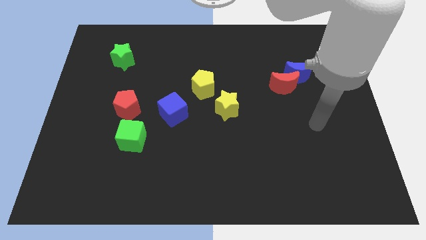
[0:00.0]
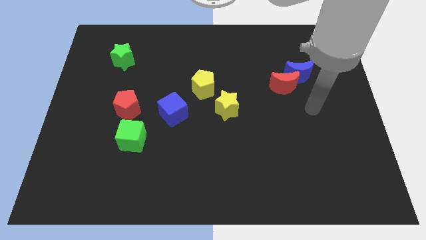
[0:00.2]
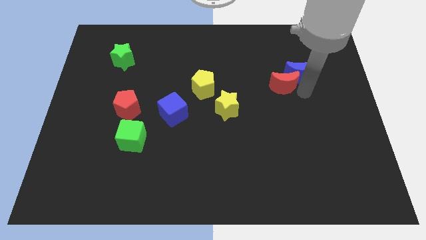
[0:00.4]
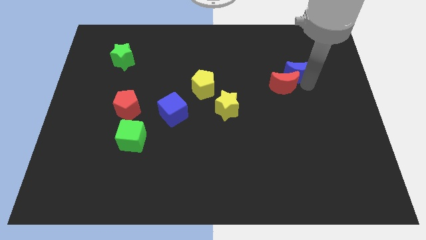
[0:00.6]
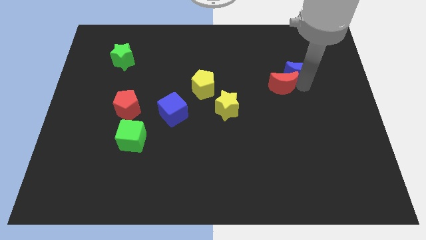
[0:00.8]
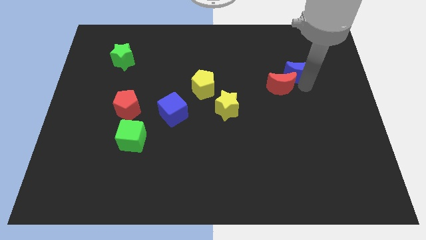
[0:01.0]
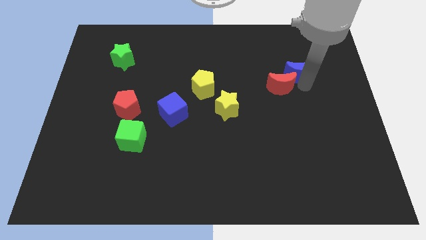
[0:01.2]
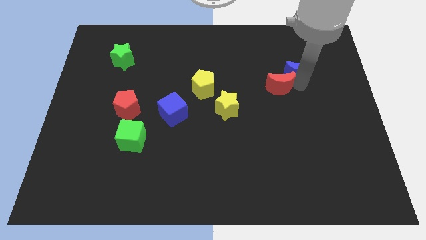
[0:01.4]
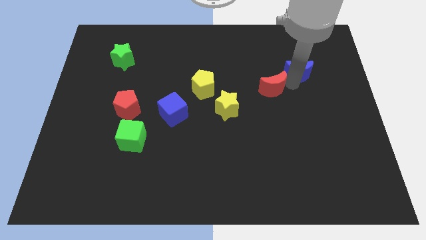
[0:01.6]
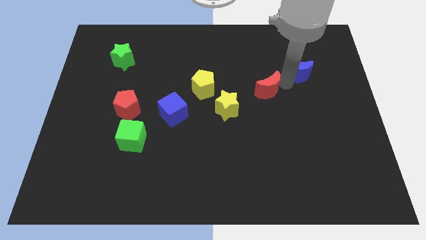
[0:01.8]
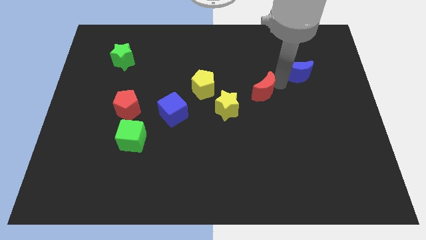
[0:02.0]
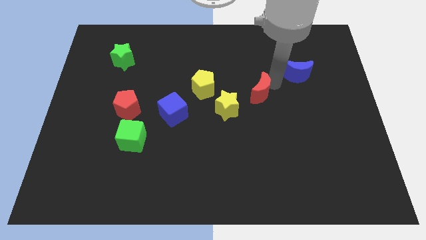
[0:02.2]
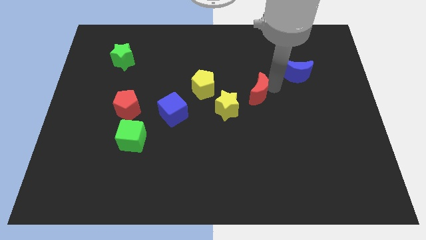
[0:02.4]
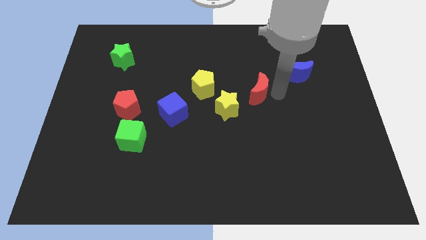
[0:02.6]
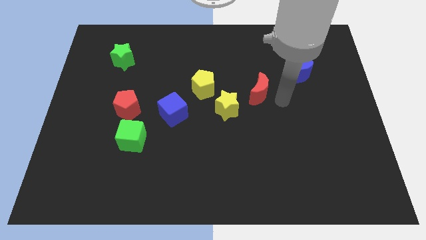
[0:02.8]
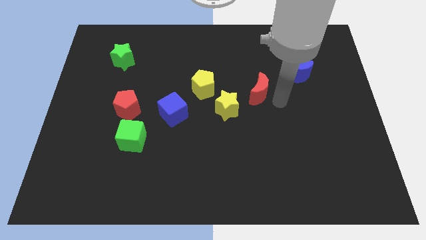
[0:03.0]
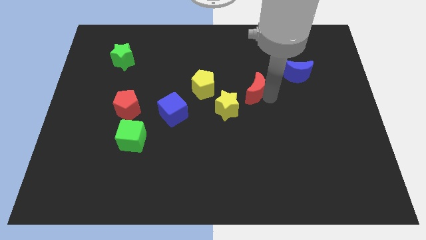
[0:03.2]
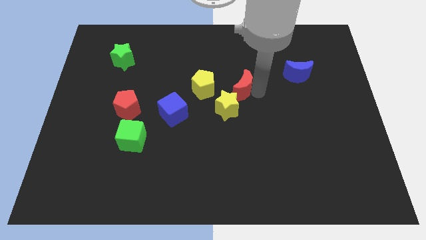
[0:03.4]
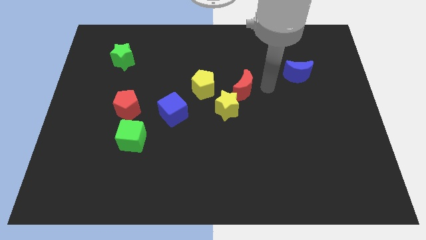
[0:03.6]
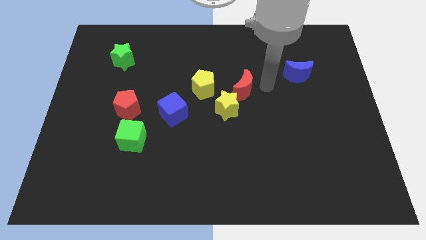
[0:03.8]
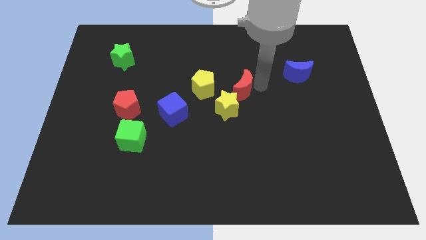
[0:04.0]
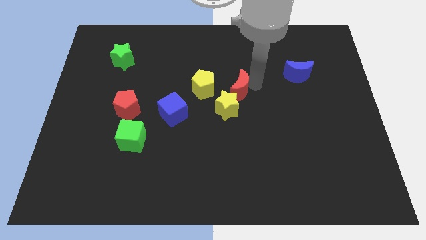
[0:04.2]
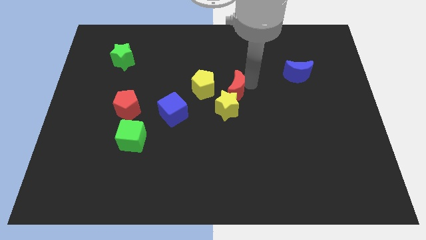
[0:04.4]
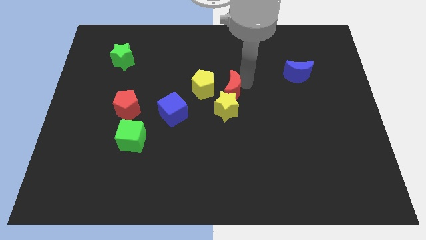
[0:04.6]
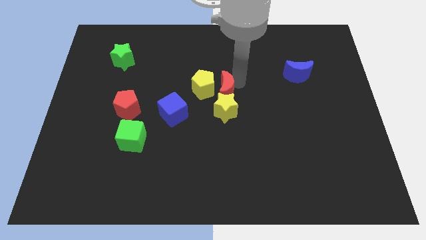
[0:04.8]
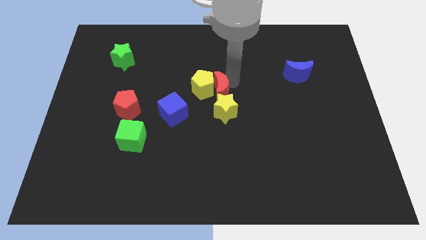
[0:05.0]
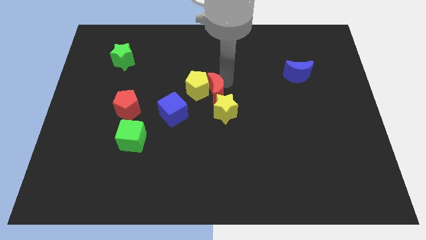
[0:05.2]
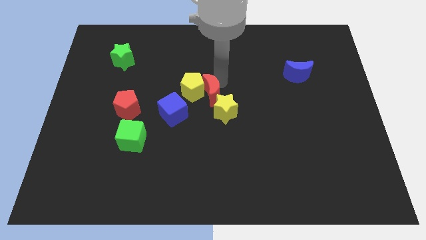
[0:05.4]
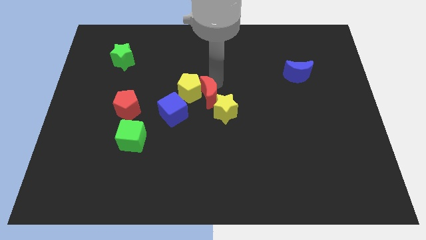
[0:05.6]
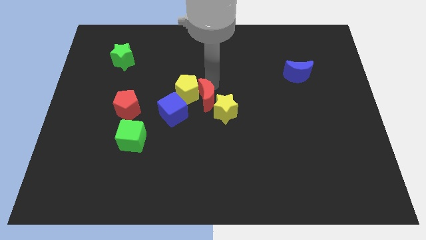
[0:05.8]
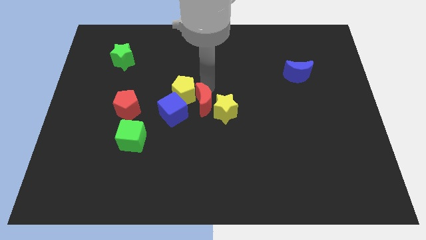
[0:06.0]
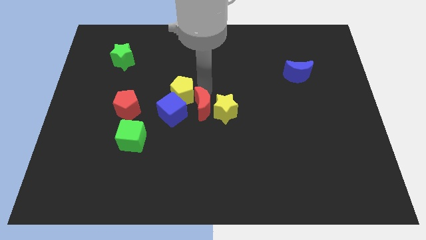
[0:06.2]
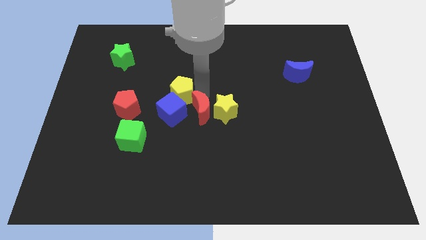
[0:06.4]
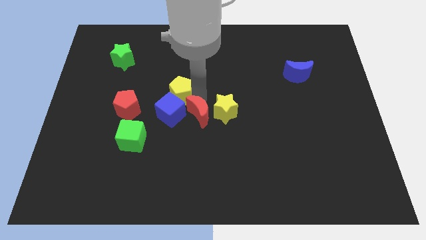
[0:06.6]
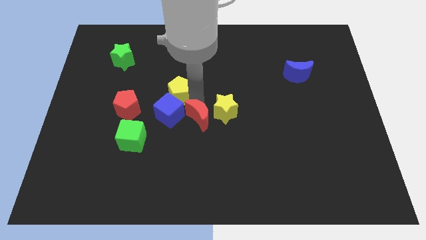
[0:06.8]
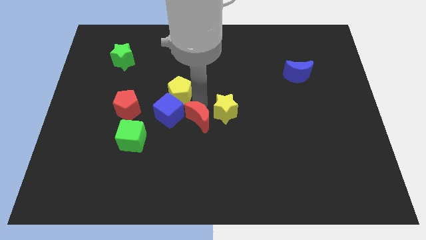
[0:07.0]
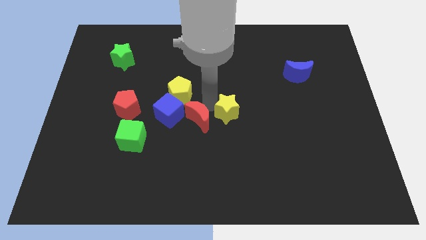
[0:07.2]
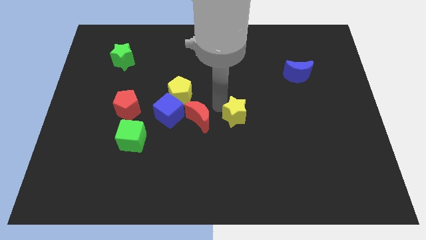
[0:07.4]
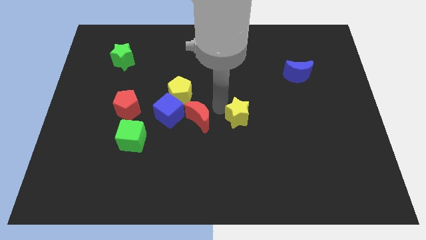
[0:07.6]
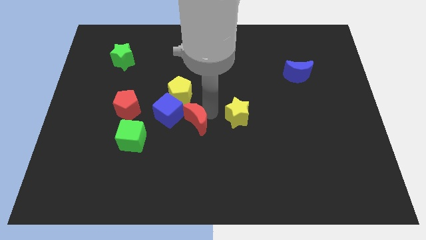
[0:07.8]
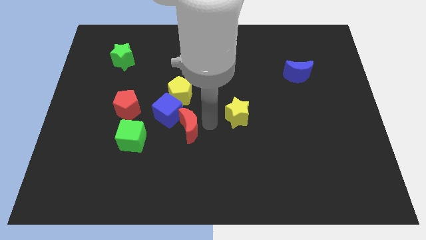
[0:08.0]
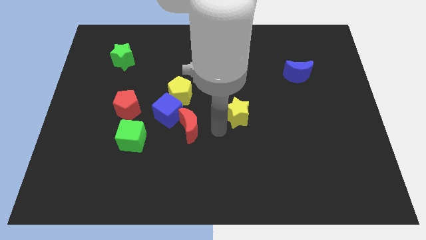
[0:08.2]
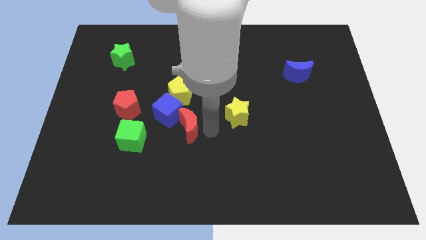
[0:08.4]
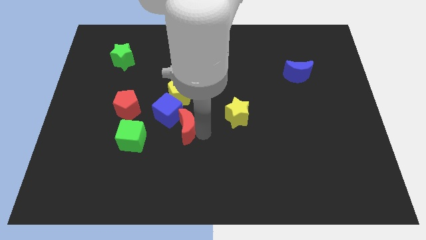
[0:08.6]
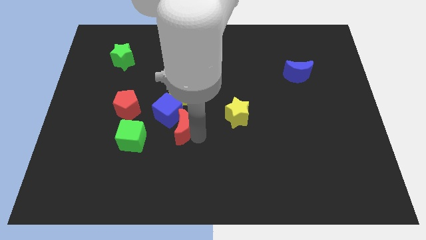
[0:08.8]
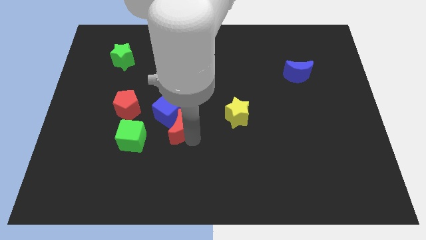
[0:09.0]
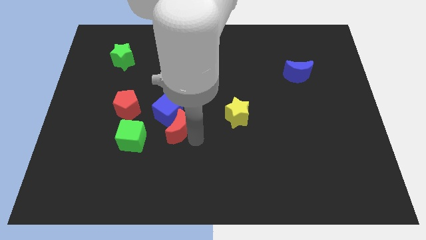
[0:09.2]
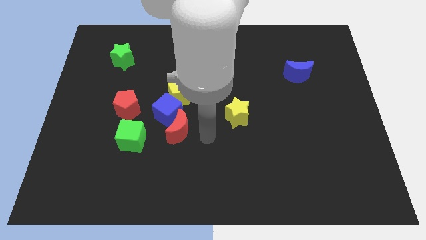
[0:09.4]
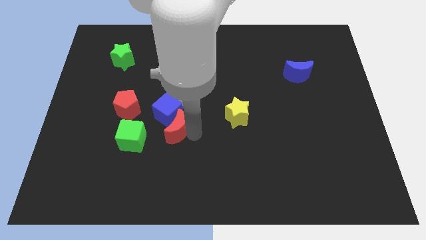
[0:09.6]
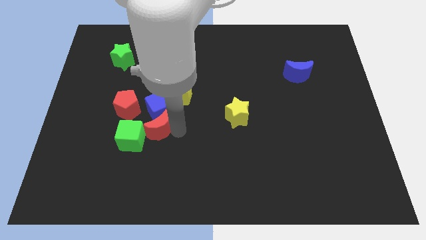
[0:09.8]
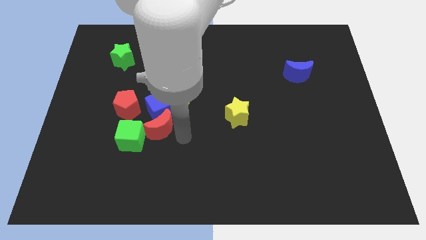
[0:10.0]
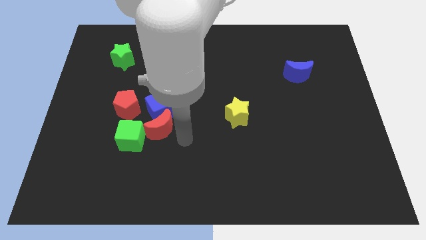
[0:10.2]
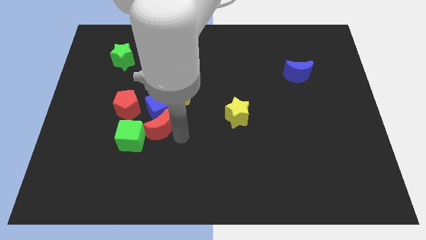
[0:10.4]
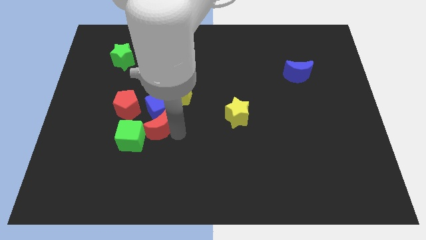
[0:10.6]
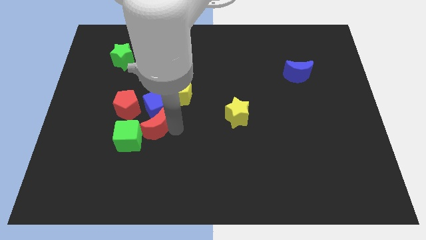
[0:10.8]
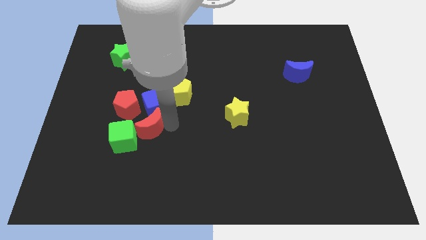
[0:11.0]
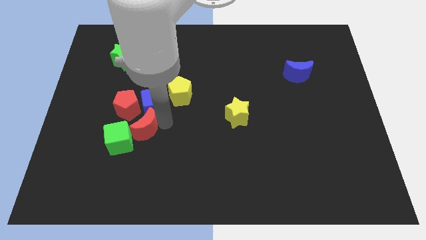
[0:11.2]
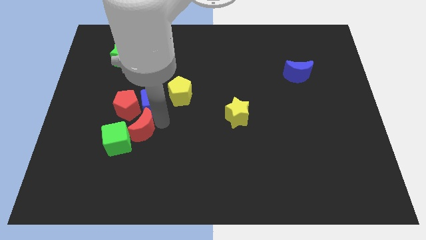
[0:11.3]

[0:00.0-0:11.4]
move the red moon close to the green cube

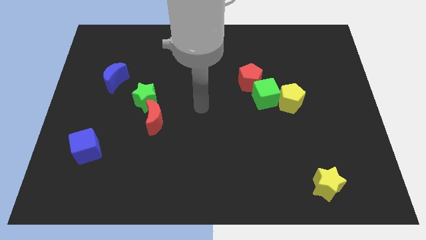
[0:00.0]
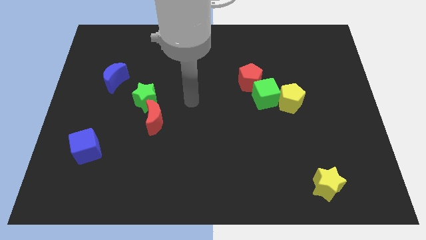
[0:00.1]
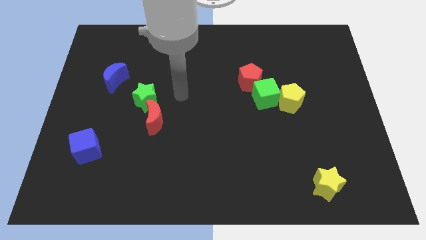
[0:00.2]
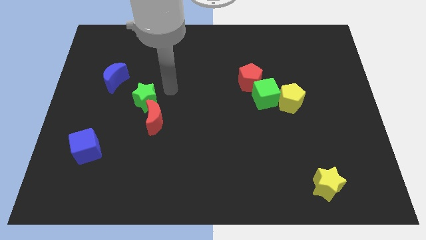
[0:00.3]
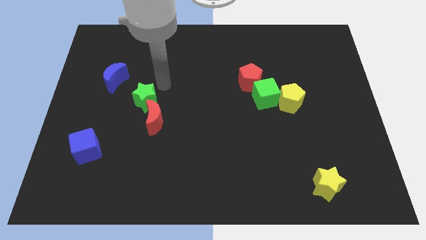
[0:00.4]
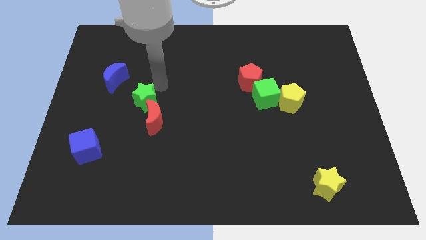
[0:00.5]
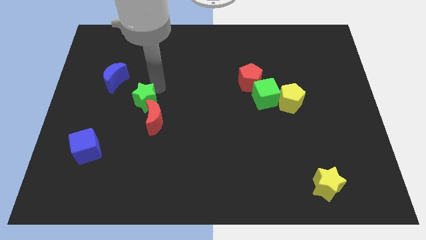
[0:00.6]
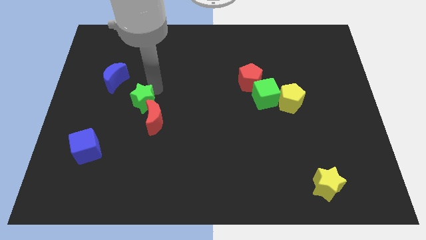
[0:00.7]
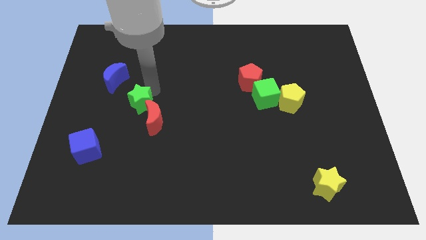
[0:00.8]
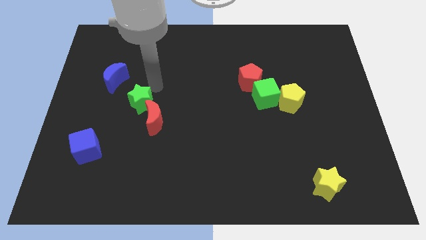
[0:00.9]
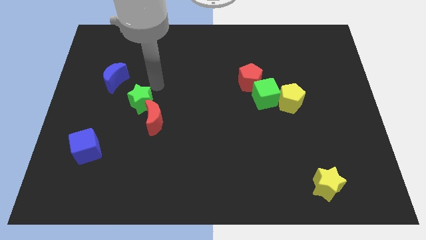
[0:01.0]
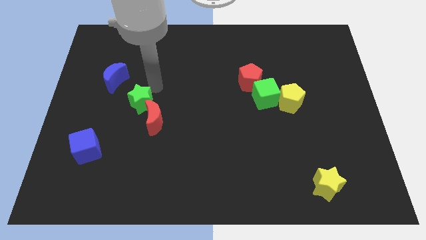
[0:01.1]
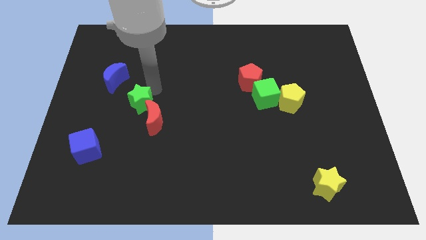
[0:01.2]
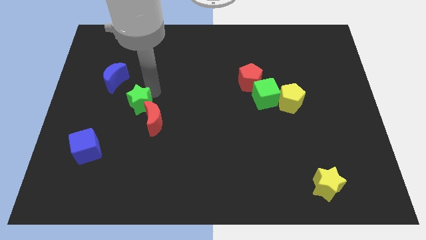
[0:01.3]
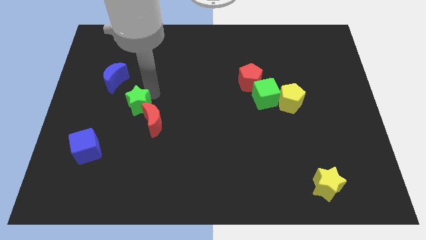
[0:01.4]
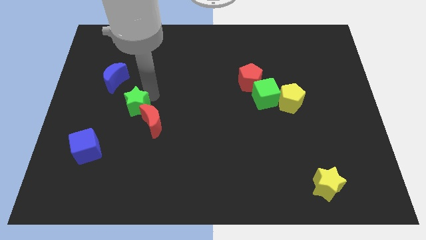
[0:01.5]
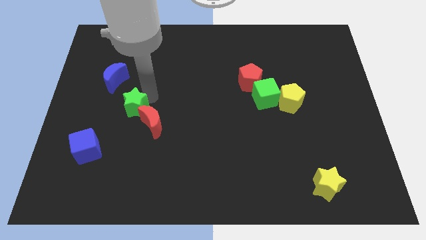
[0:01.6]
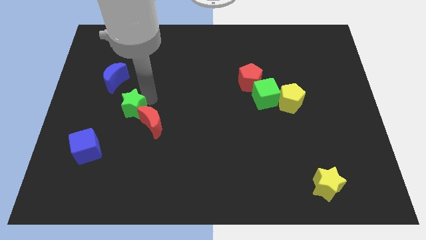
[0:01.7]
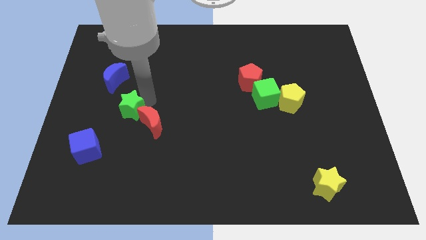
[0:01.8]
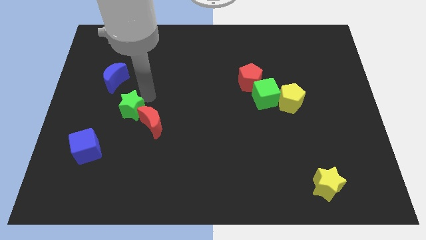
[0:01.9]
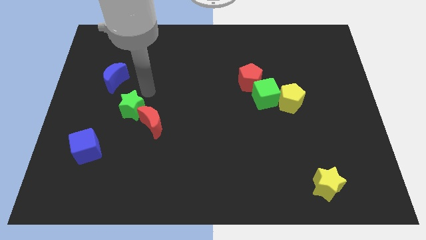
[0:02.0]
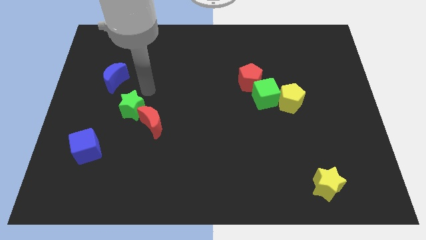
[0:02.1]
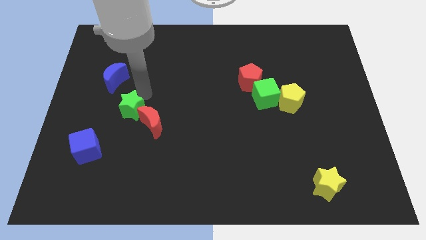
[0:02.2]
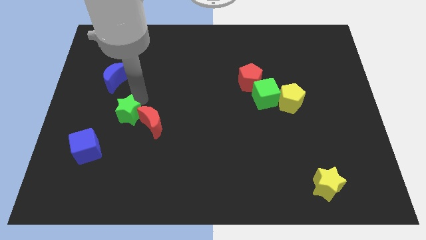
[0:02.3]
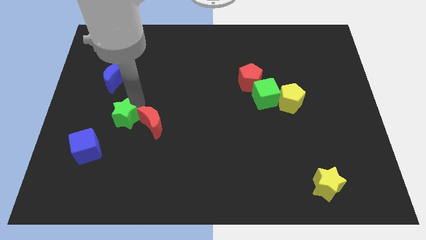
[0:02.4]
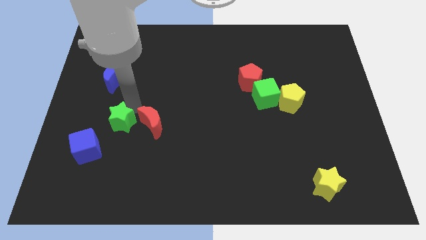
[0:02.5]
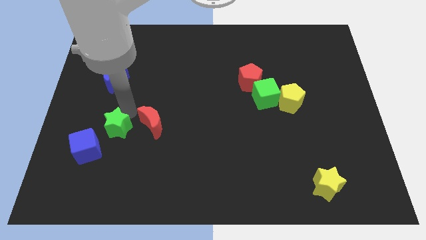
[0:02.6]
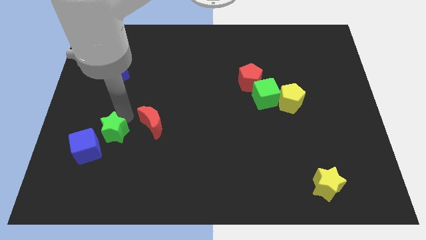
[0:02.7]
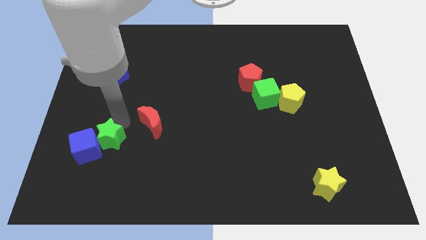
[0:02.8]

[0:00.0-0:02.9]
push the green star to the blue cube
